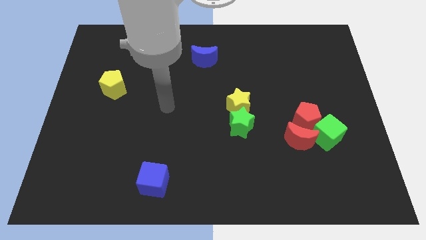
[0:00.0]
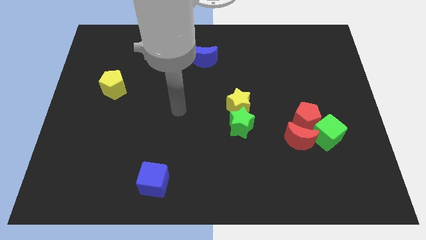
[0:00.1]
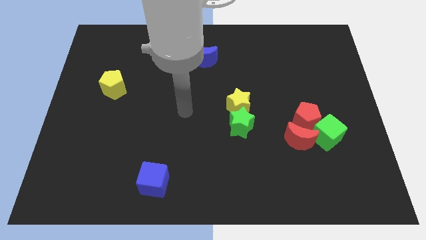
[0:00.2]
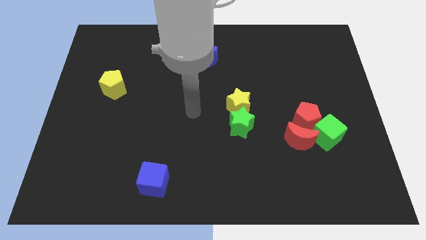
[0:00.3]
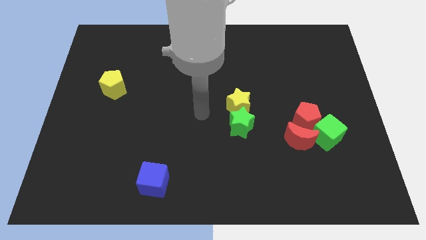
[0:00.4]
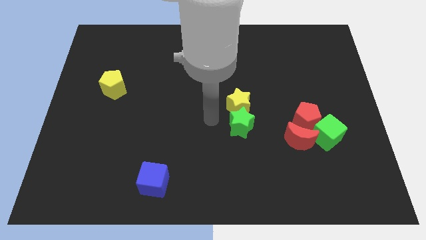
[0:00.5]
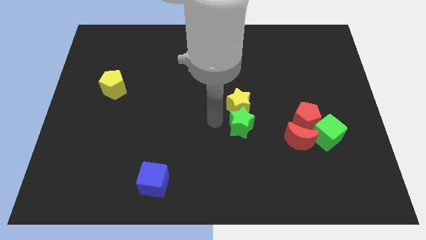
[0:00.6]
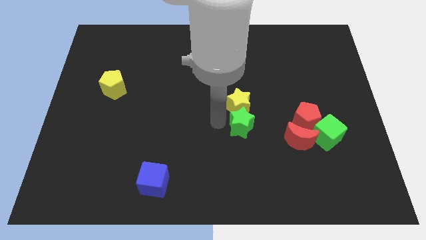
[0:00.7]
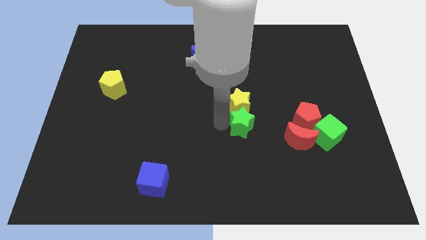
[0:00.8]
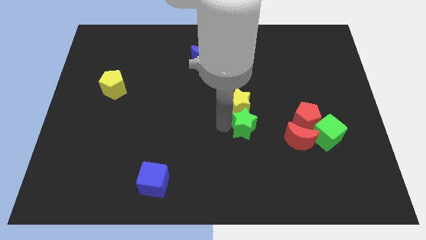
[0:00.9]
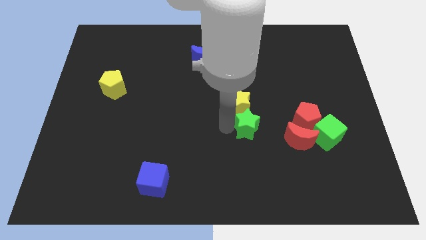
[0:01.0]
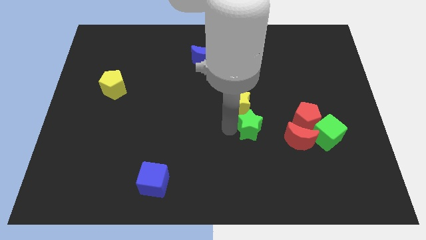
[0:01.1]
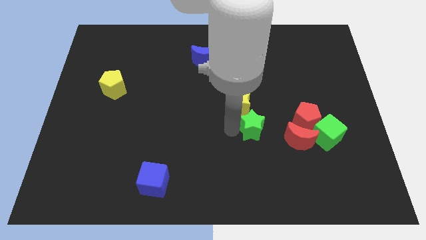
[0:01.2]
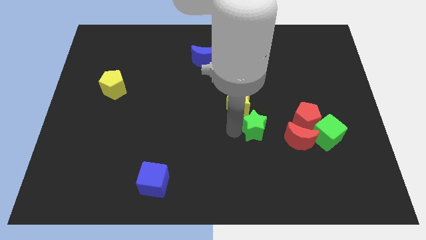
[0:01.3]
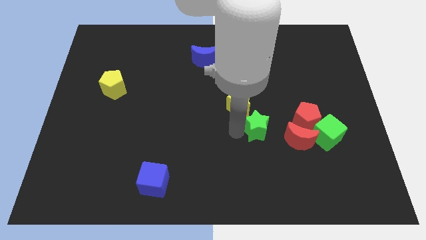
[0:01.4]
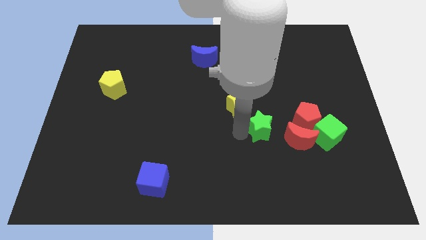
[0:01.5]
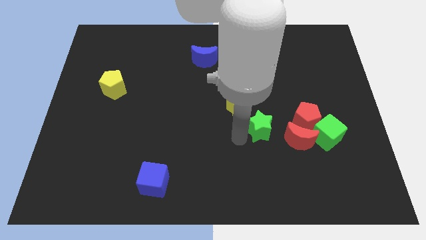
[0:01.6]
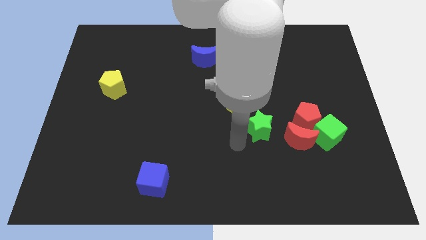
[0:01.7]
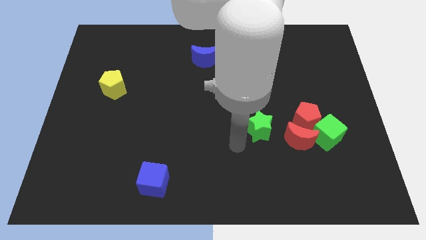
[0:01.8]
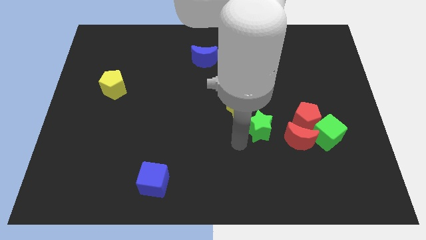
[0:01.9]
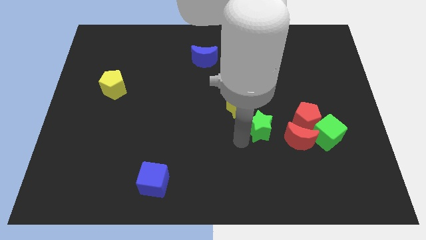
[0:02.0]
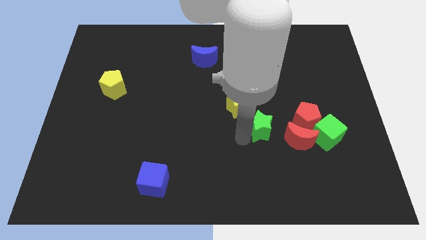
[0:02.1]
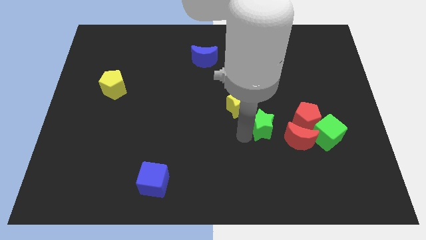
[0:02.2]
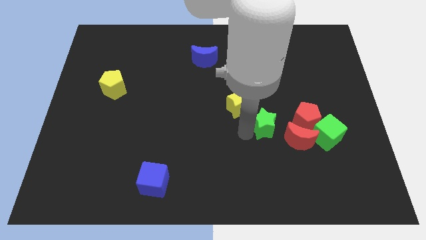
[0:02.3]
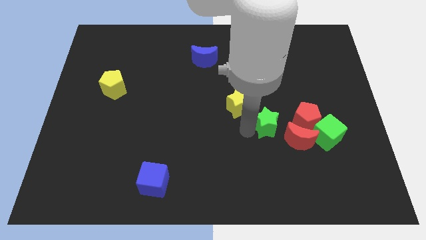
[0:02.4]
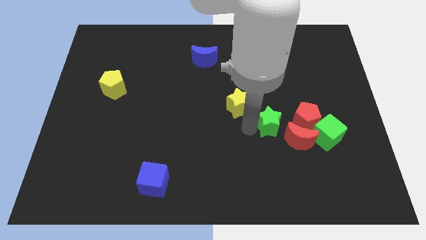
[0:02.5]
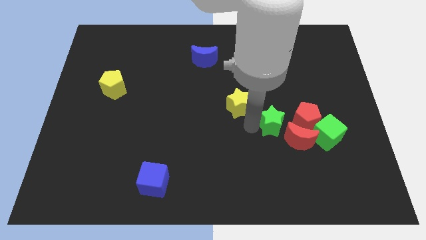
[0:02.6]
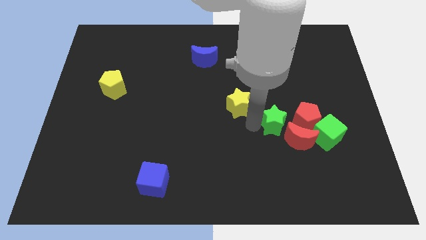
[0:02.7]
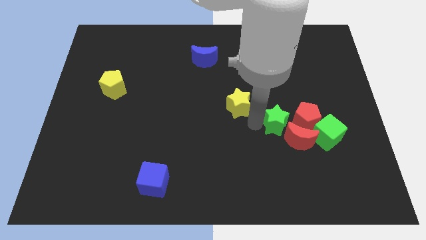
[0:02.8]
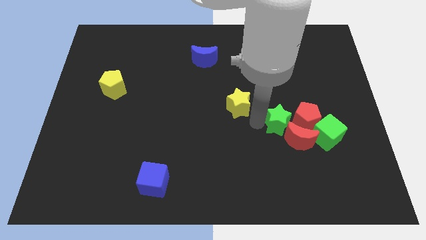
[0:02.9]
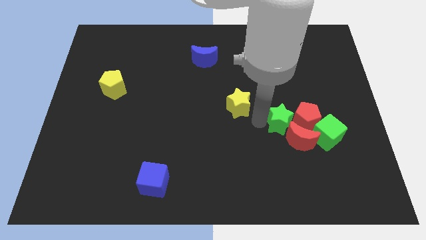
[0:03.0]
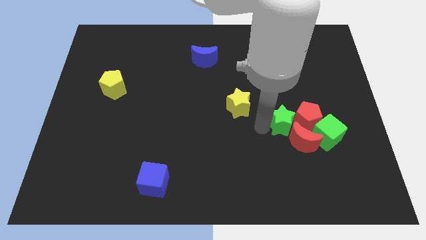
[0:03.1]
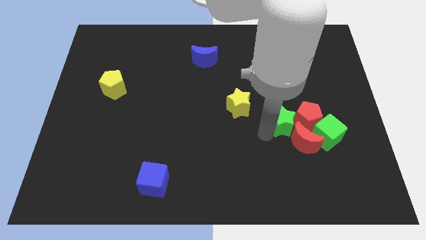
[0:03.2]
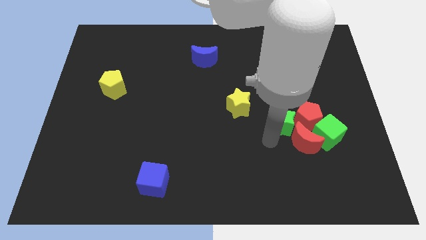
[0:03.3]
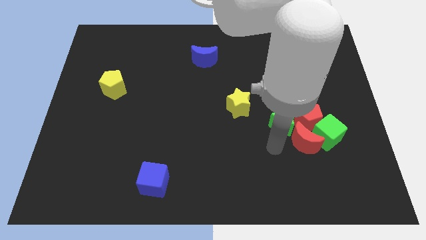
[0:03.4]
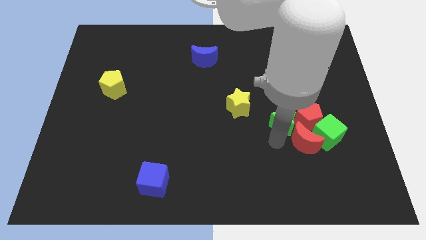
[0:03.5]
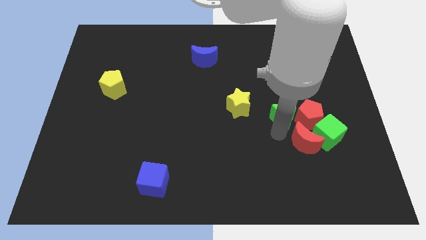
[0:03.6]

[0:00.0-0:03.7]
slightly move the green star up and to the right diagonally

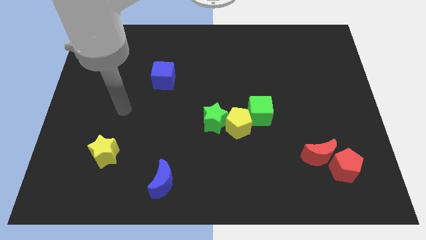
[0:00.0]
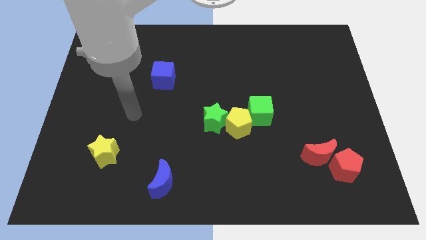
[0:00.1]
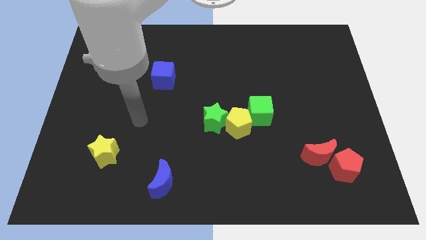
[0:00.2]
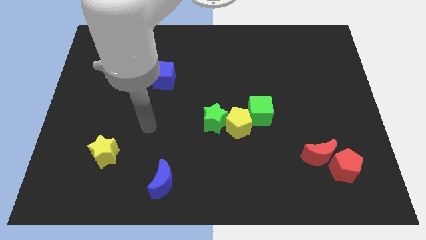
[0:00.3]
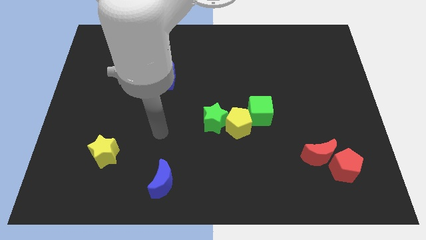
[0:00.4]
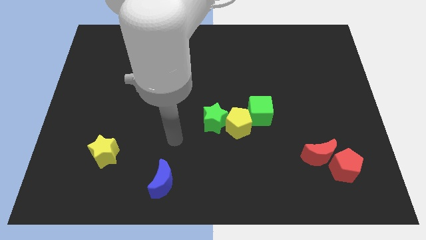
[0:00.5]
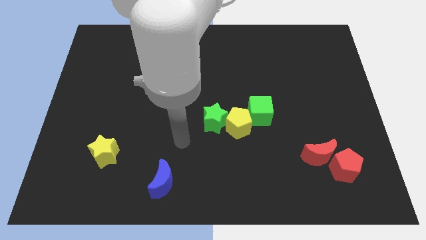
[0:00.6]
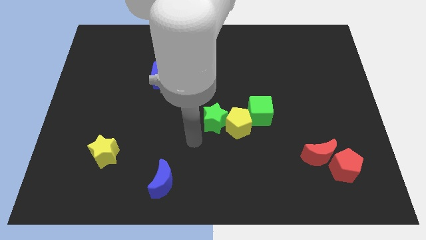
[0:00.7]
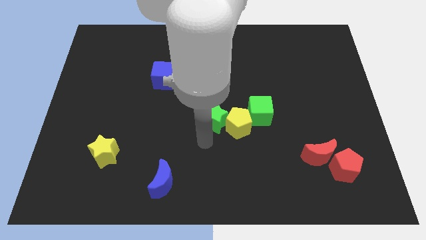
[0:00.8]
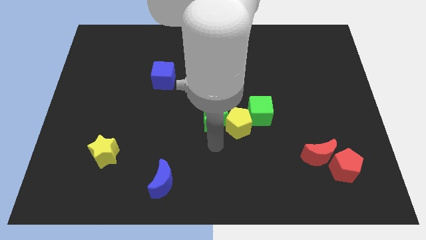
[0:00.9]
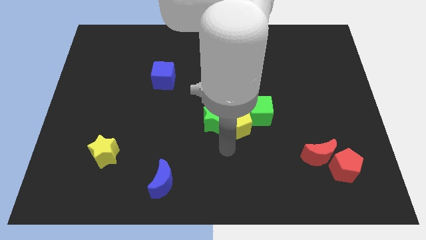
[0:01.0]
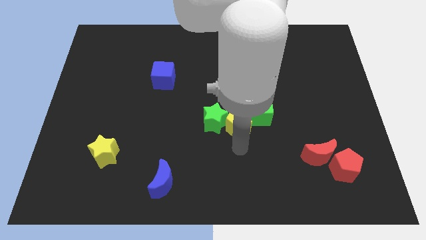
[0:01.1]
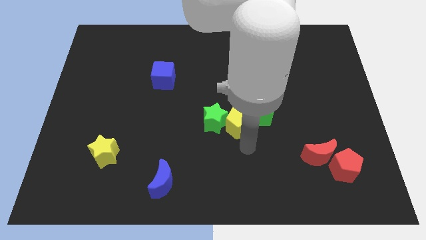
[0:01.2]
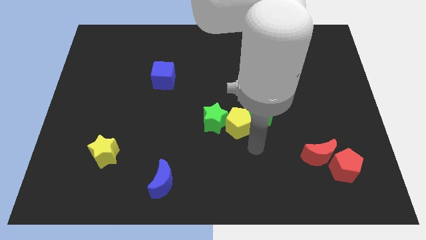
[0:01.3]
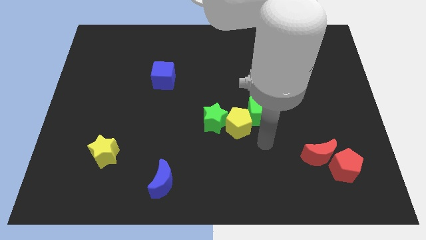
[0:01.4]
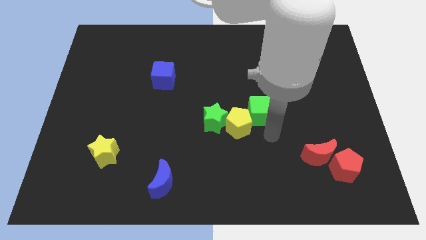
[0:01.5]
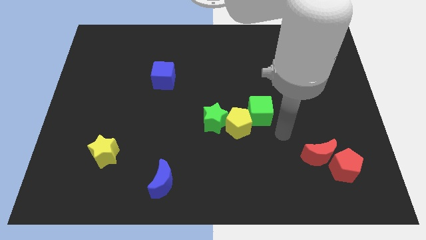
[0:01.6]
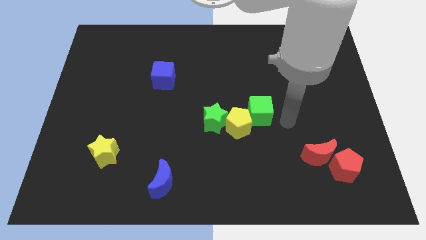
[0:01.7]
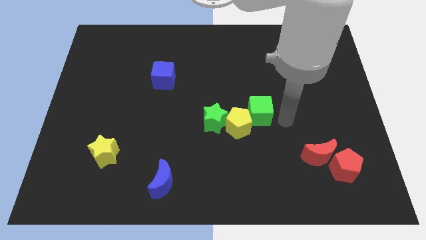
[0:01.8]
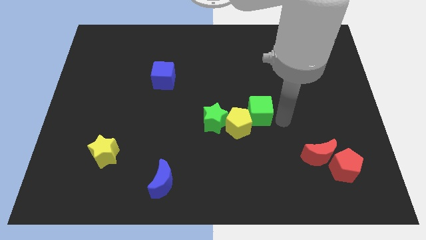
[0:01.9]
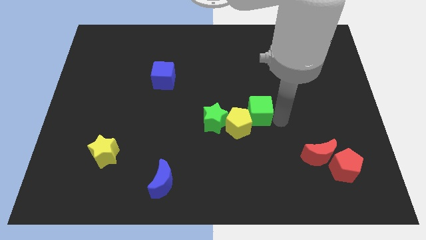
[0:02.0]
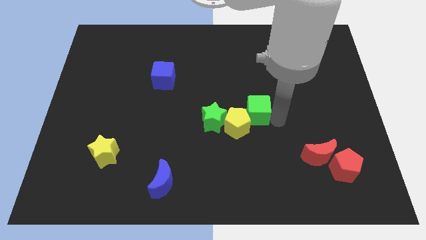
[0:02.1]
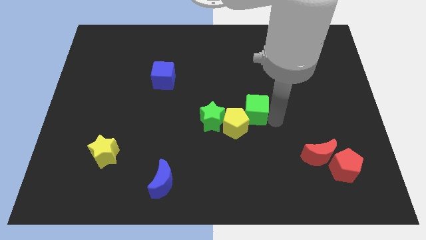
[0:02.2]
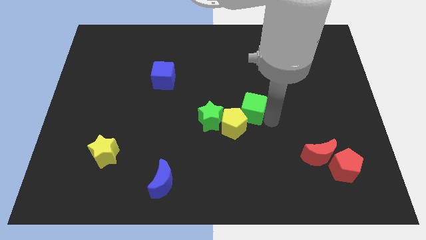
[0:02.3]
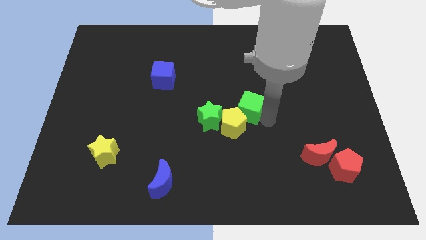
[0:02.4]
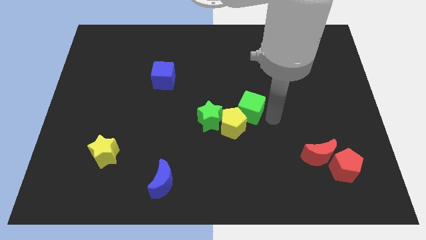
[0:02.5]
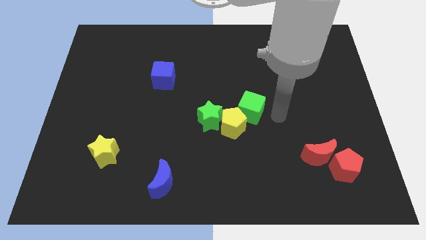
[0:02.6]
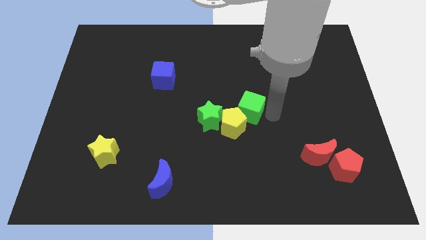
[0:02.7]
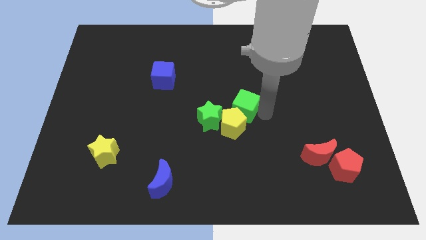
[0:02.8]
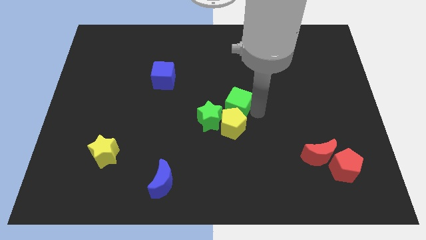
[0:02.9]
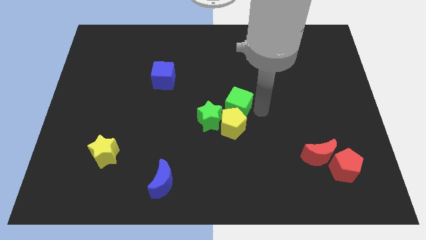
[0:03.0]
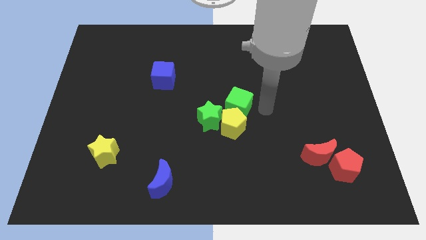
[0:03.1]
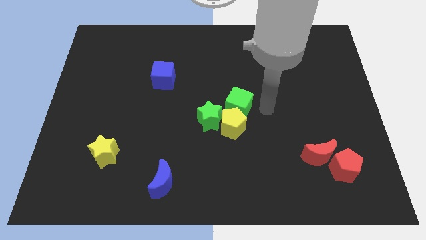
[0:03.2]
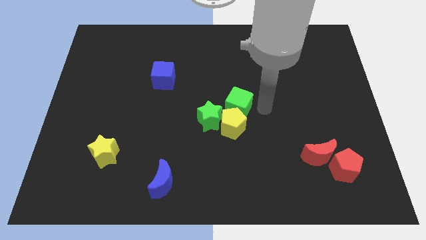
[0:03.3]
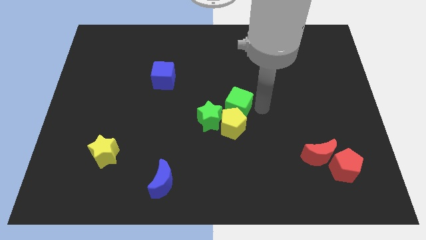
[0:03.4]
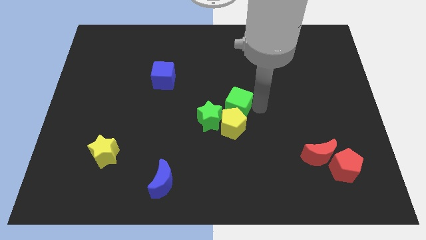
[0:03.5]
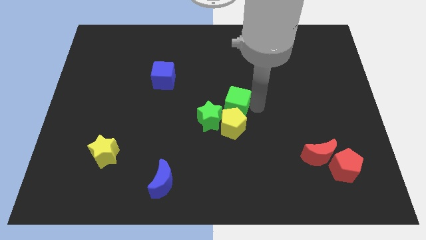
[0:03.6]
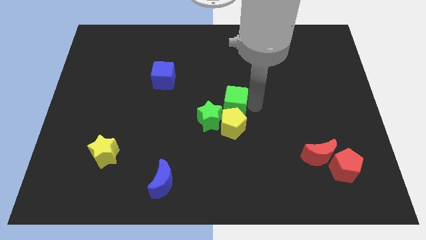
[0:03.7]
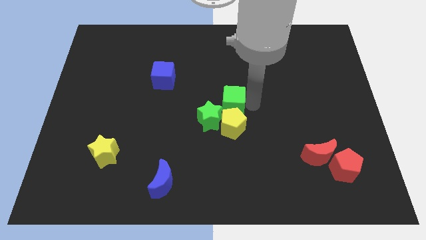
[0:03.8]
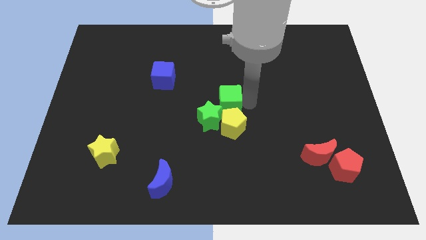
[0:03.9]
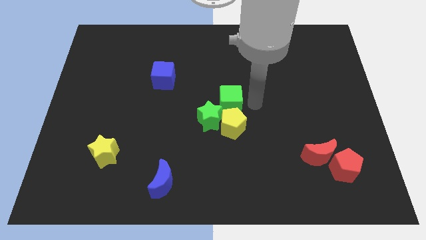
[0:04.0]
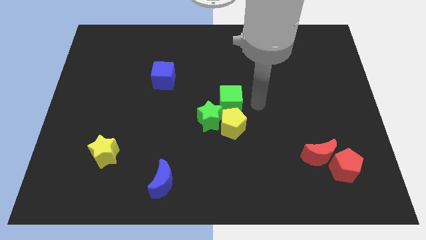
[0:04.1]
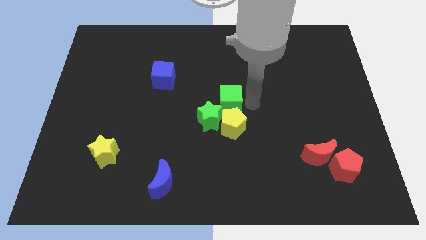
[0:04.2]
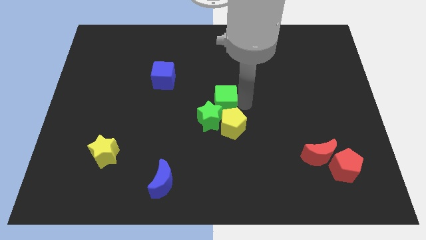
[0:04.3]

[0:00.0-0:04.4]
slightly slide the green cube left
